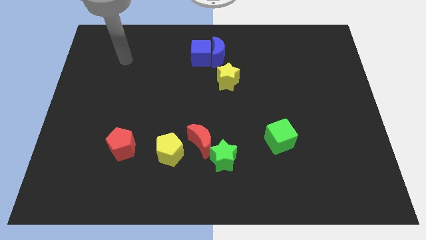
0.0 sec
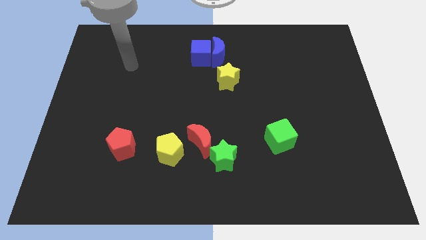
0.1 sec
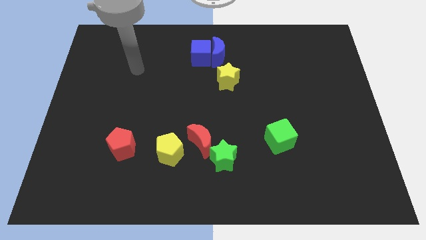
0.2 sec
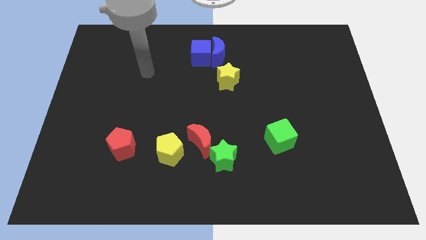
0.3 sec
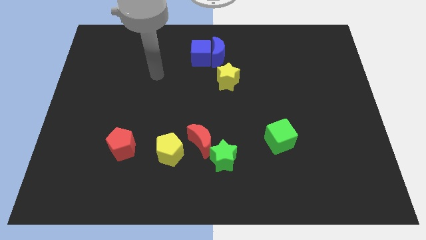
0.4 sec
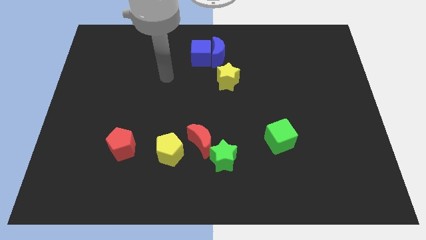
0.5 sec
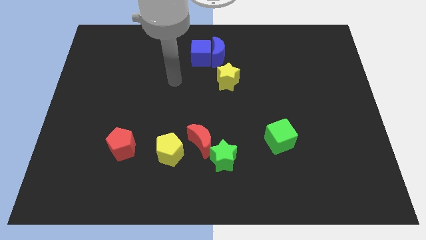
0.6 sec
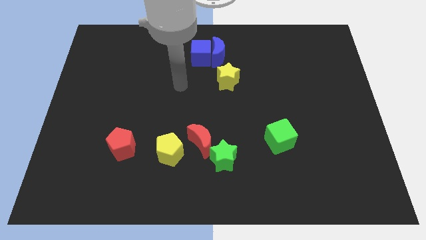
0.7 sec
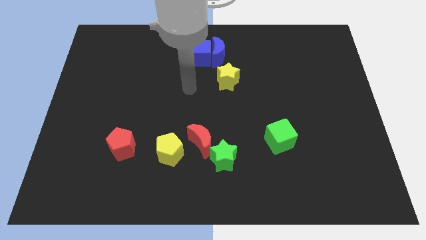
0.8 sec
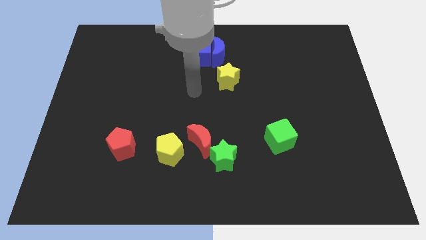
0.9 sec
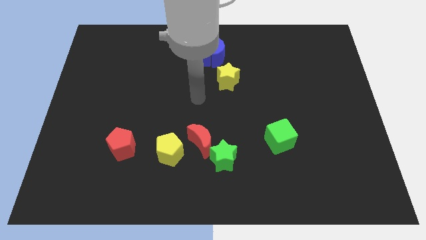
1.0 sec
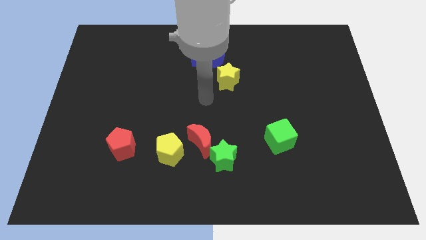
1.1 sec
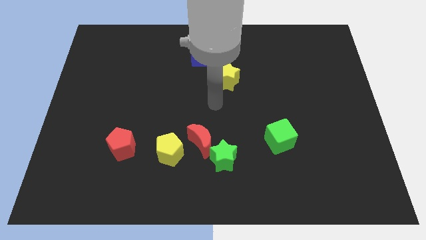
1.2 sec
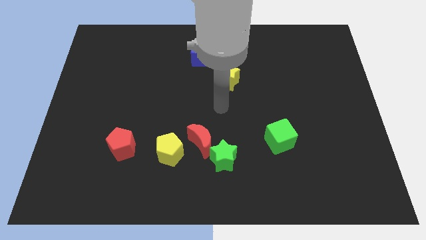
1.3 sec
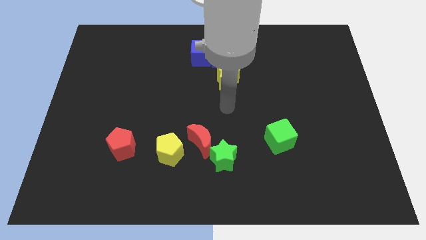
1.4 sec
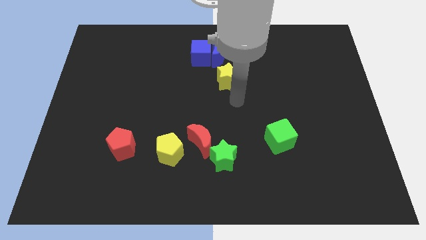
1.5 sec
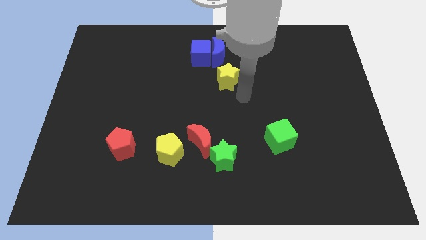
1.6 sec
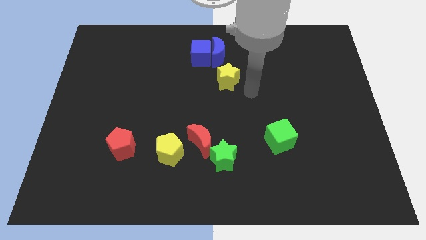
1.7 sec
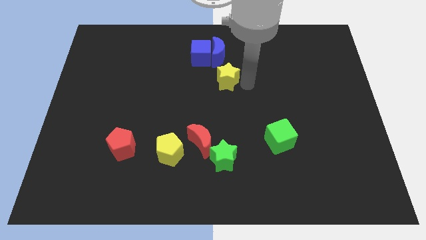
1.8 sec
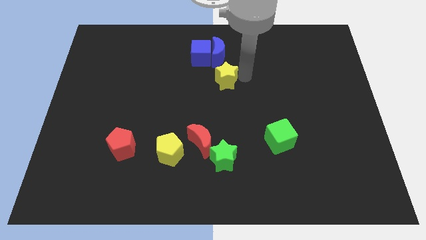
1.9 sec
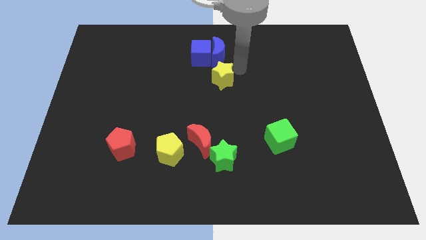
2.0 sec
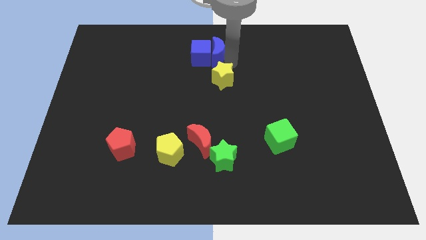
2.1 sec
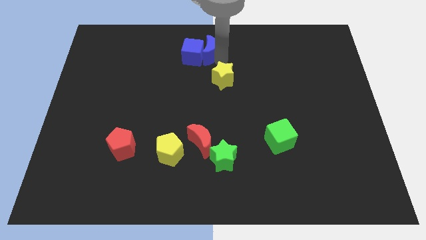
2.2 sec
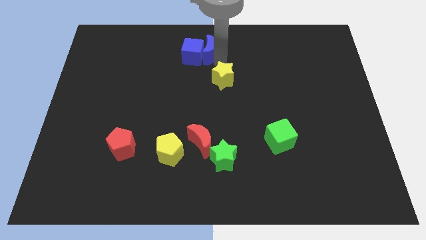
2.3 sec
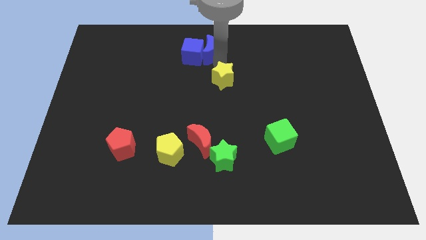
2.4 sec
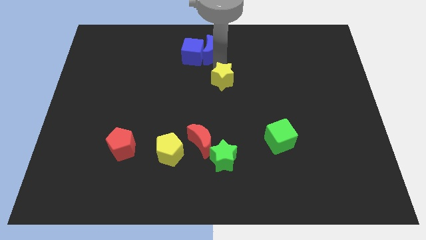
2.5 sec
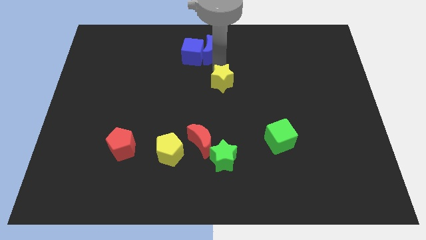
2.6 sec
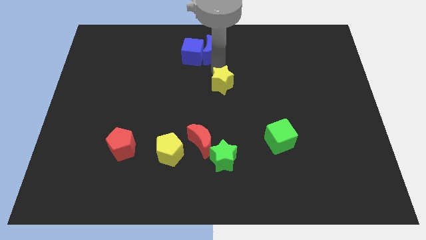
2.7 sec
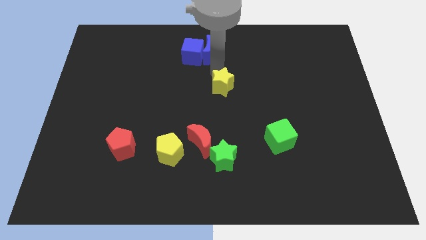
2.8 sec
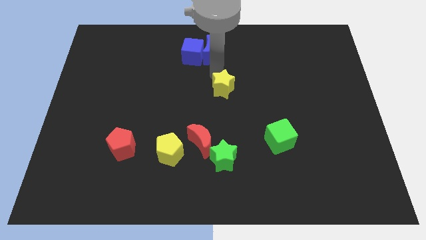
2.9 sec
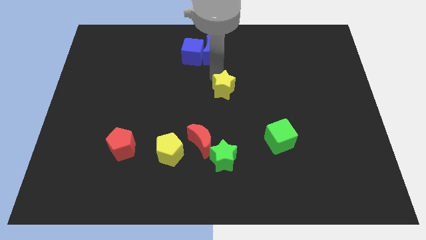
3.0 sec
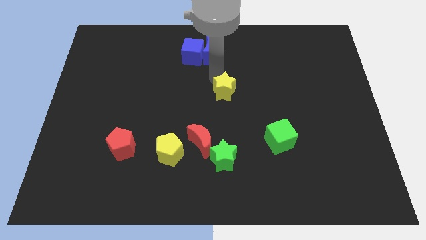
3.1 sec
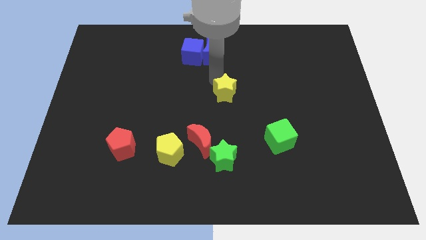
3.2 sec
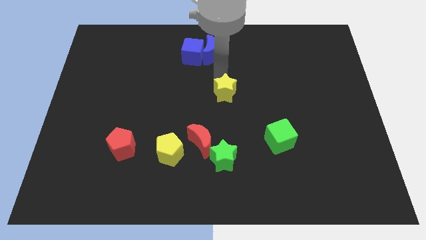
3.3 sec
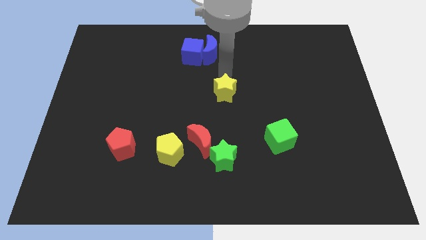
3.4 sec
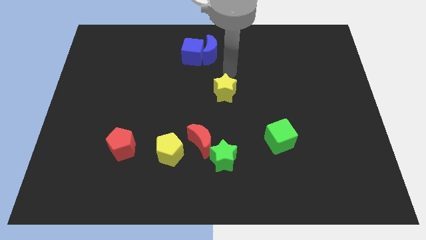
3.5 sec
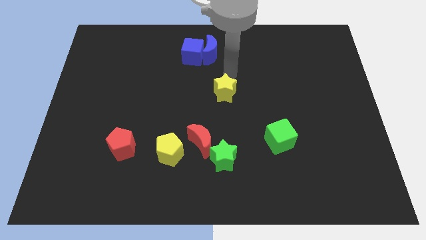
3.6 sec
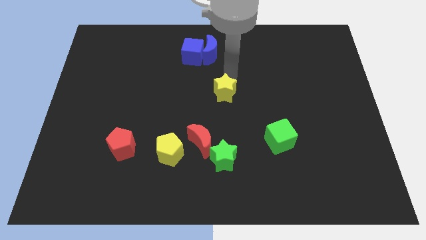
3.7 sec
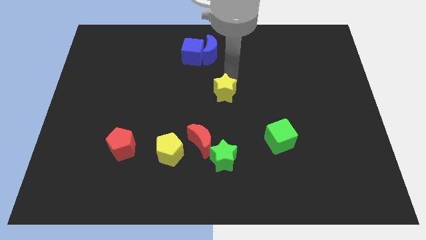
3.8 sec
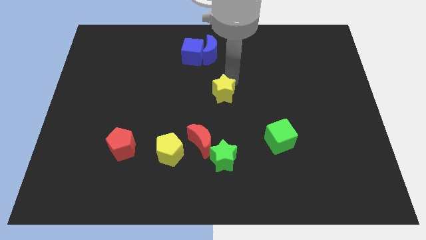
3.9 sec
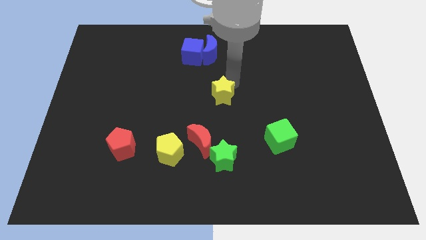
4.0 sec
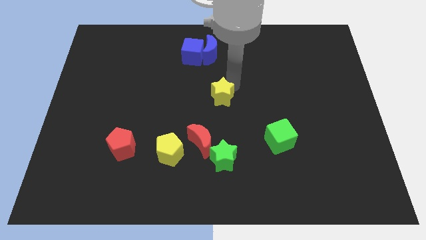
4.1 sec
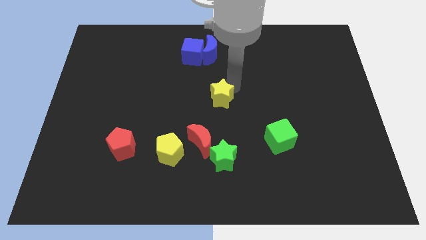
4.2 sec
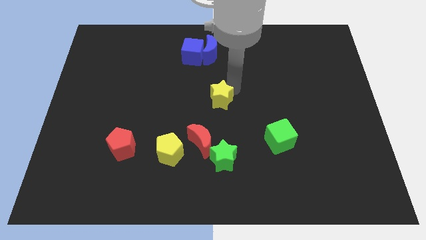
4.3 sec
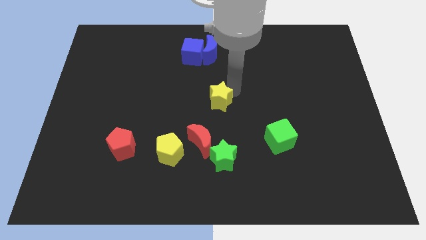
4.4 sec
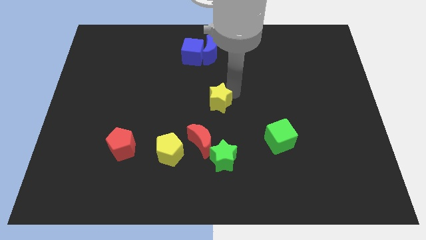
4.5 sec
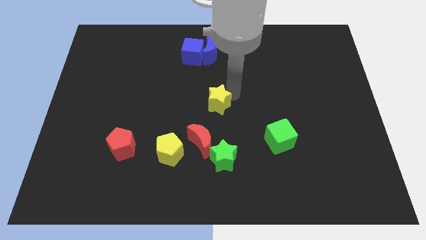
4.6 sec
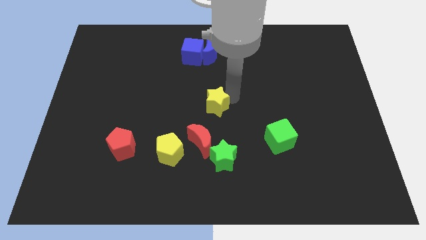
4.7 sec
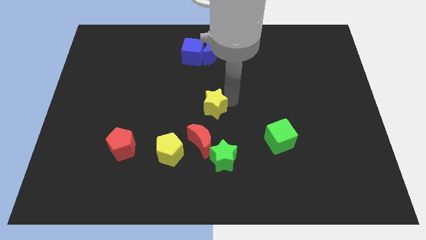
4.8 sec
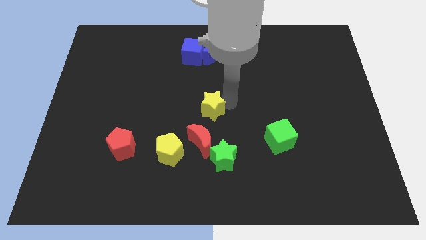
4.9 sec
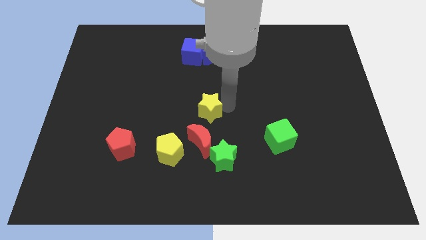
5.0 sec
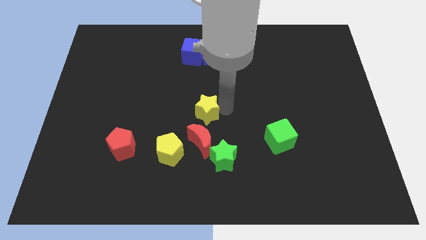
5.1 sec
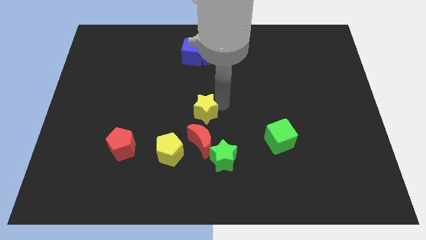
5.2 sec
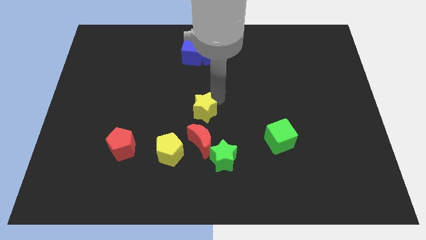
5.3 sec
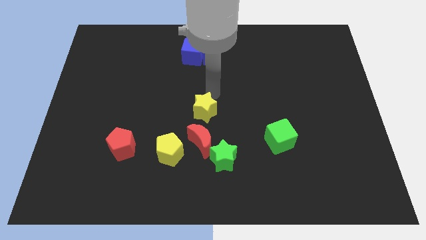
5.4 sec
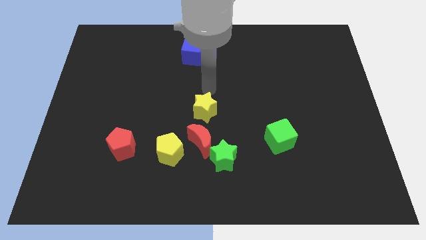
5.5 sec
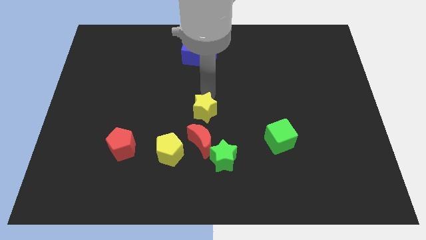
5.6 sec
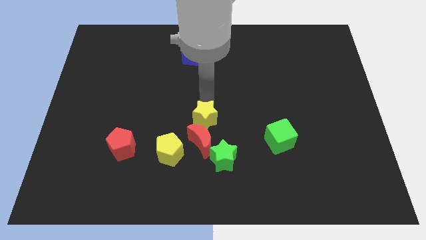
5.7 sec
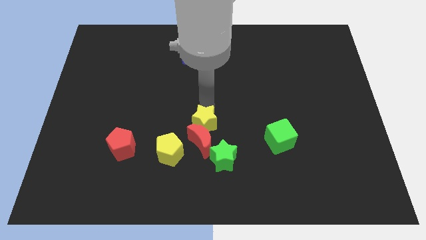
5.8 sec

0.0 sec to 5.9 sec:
slide the yellow star towards the red moon

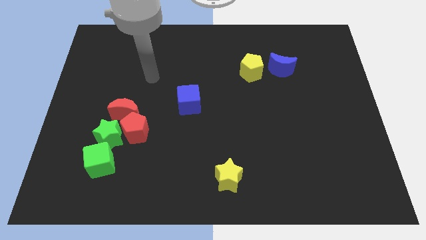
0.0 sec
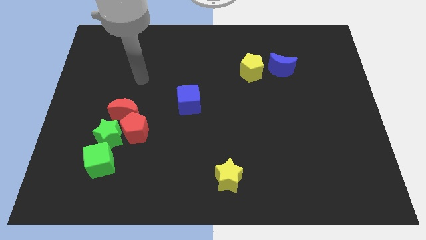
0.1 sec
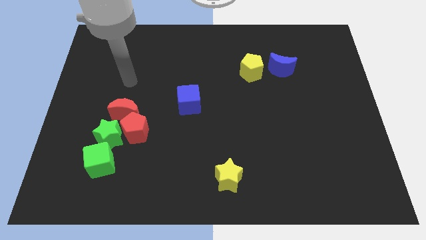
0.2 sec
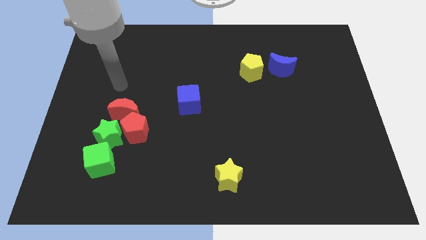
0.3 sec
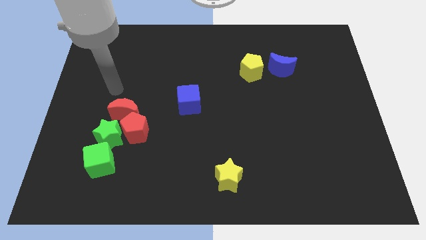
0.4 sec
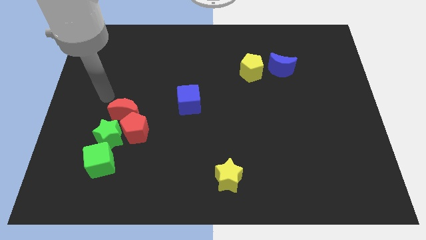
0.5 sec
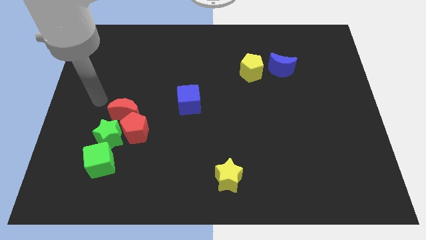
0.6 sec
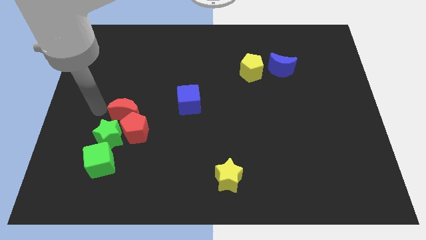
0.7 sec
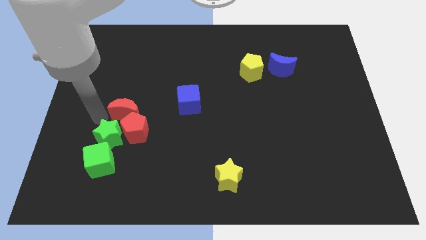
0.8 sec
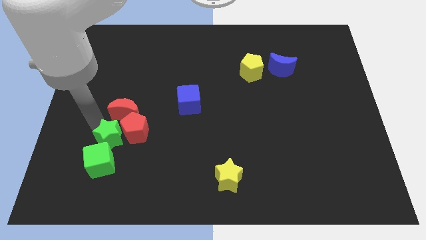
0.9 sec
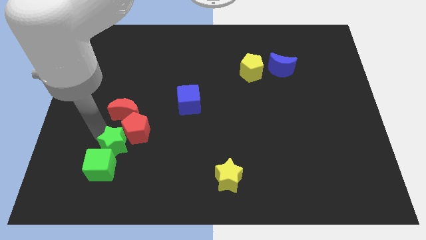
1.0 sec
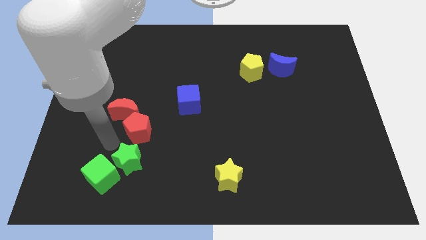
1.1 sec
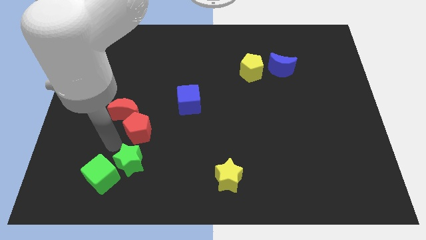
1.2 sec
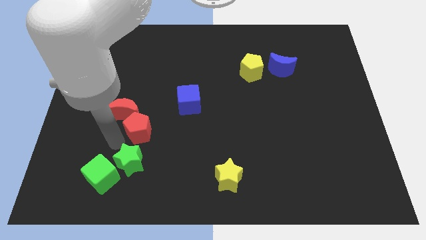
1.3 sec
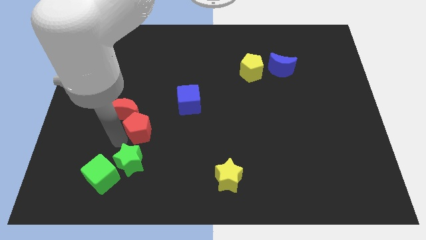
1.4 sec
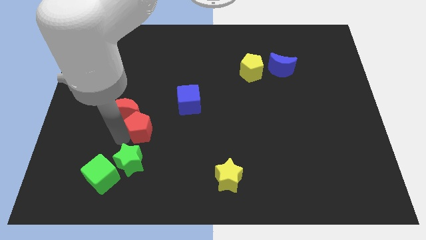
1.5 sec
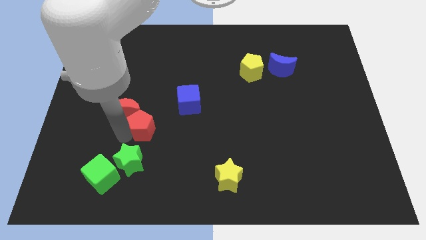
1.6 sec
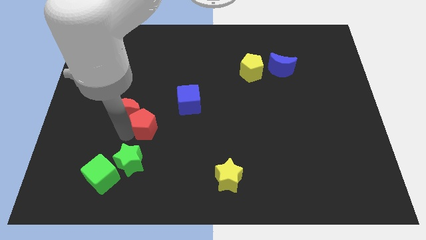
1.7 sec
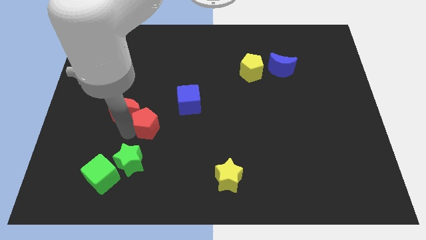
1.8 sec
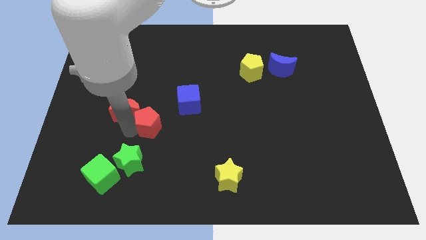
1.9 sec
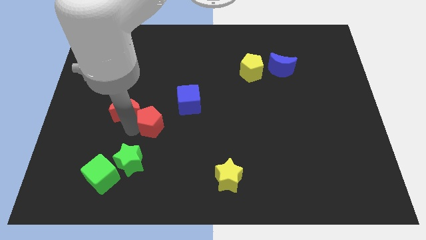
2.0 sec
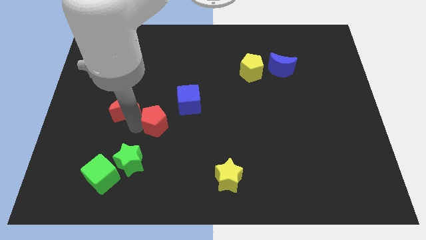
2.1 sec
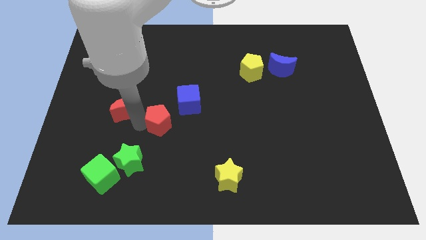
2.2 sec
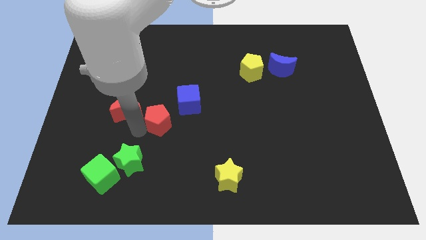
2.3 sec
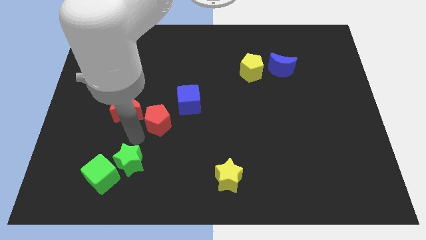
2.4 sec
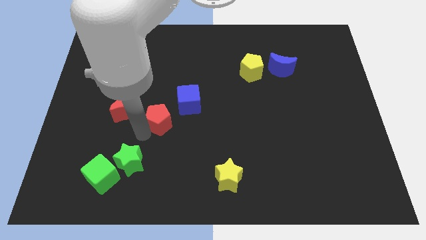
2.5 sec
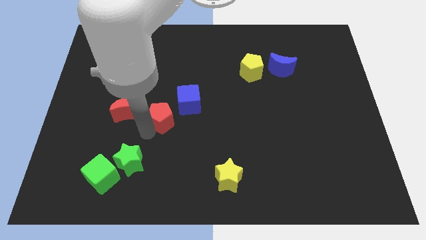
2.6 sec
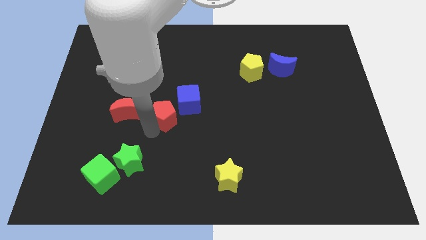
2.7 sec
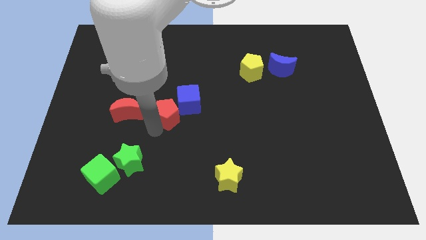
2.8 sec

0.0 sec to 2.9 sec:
slide the red pentagon next to the blue cube
